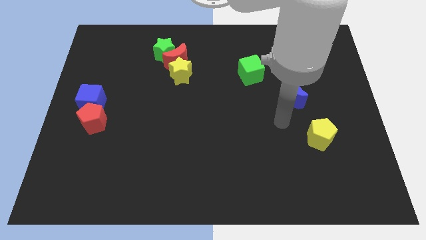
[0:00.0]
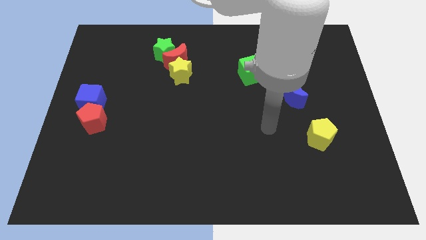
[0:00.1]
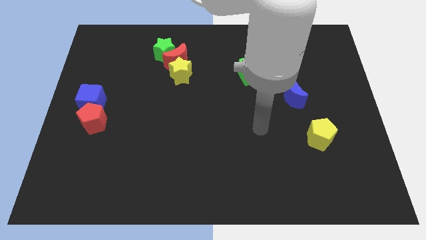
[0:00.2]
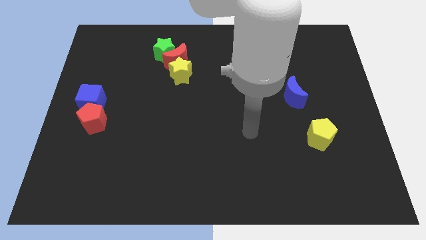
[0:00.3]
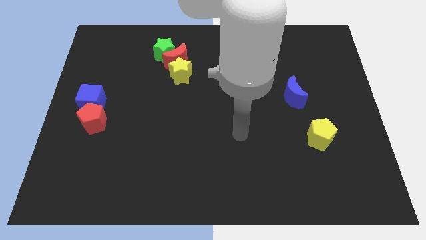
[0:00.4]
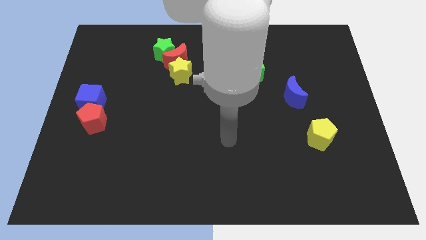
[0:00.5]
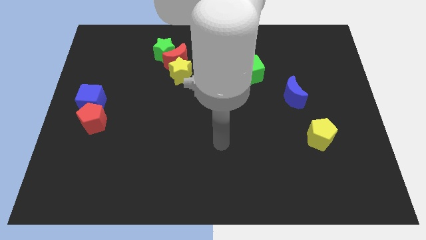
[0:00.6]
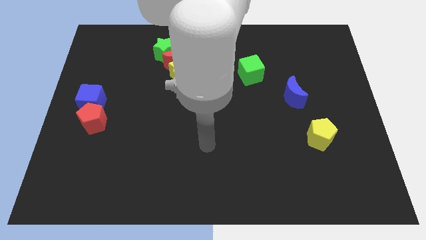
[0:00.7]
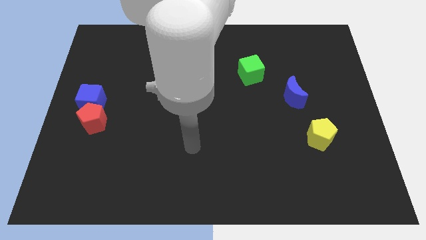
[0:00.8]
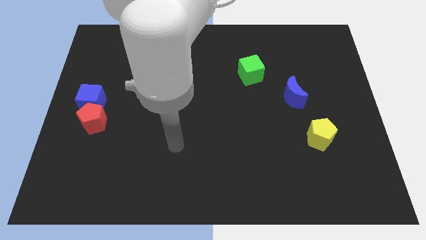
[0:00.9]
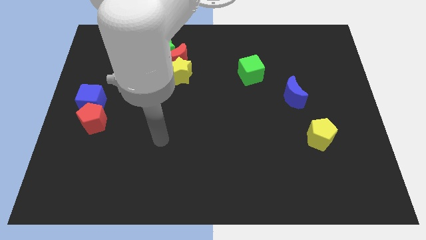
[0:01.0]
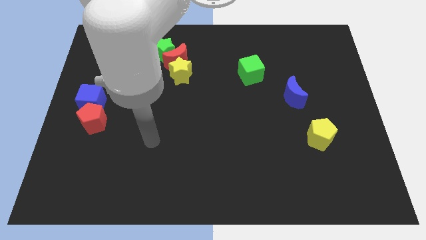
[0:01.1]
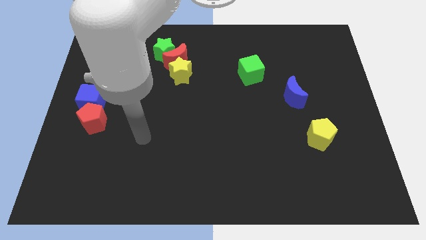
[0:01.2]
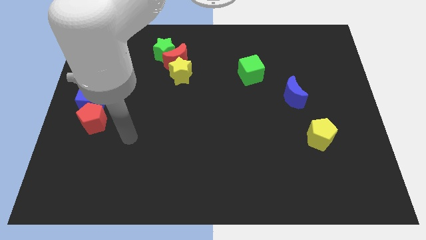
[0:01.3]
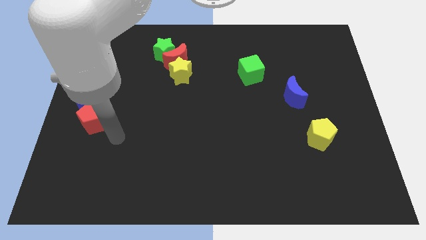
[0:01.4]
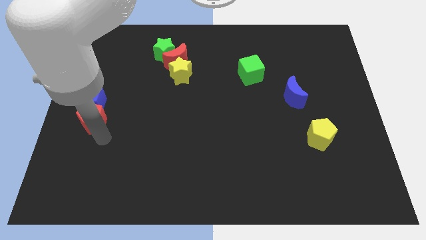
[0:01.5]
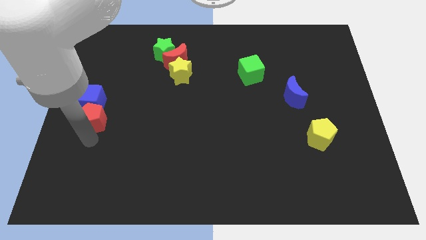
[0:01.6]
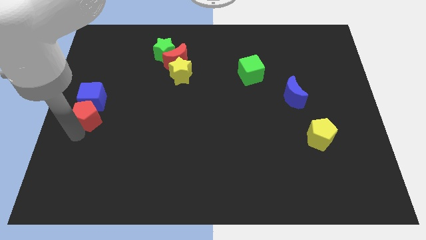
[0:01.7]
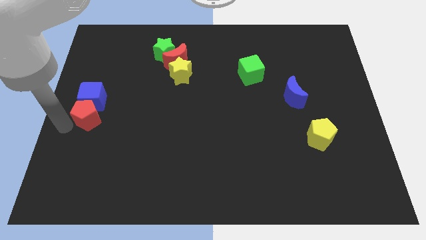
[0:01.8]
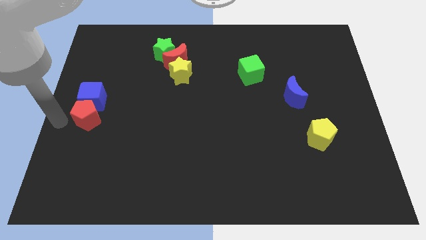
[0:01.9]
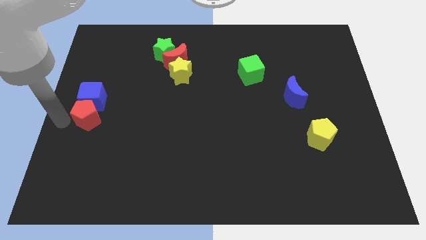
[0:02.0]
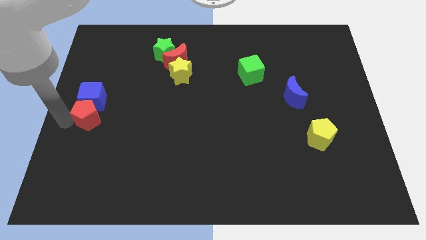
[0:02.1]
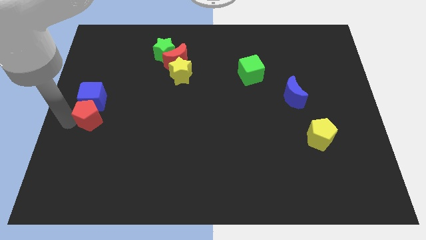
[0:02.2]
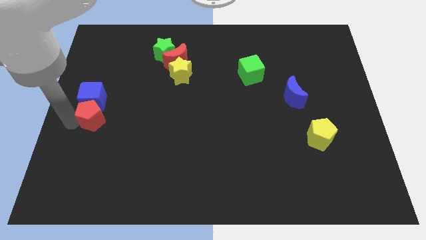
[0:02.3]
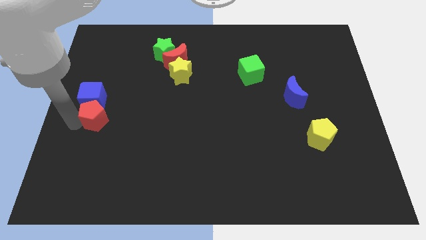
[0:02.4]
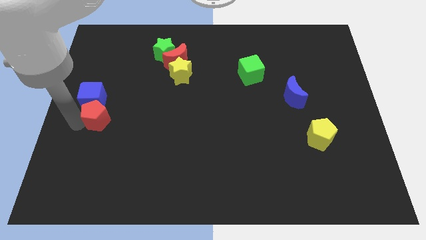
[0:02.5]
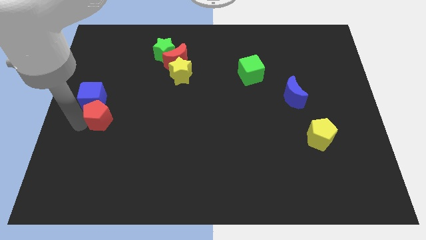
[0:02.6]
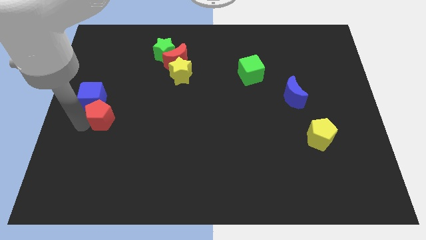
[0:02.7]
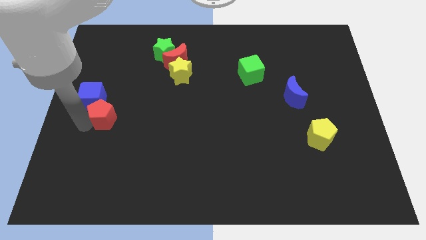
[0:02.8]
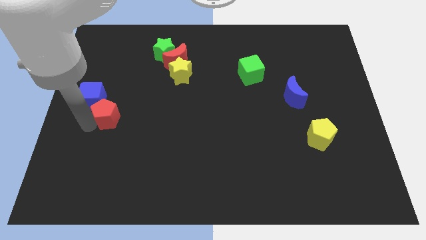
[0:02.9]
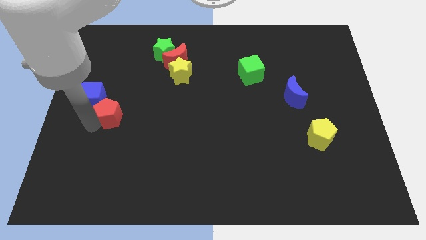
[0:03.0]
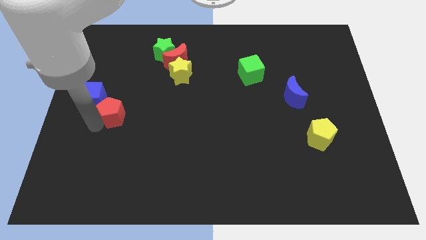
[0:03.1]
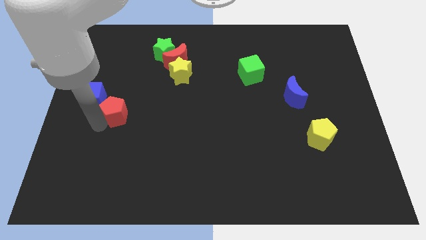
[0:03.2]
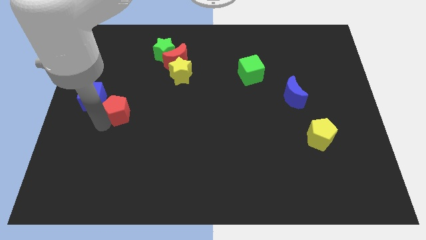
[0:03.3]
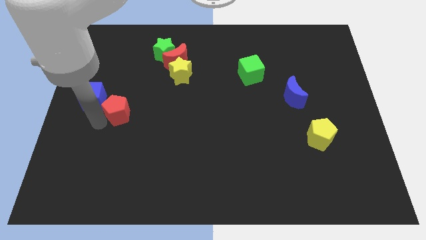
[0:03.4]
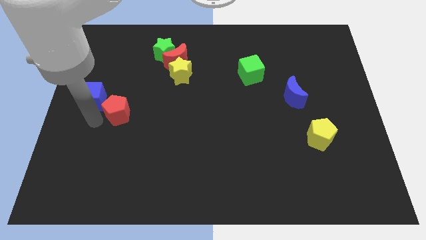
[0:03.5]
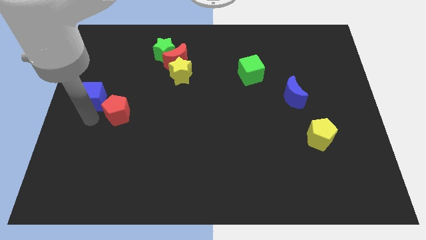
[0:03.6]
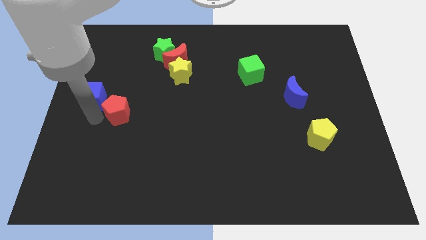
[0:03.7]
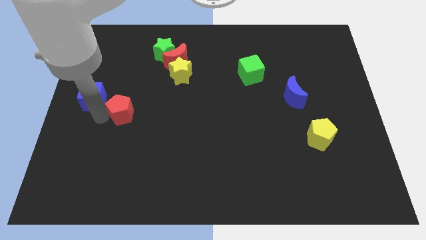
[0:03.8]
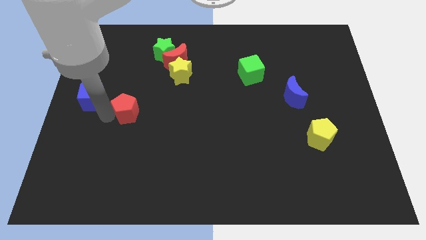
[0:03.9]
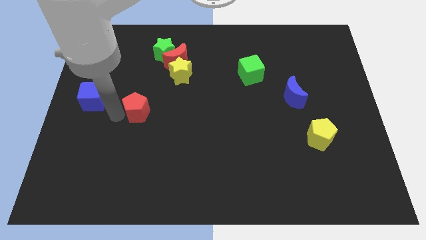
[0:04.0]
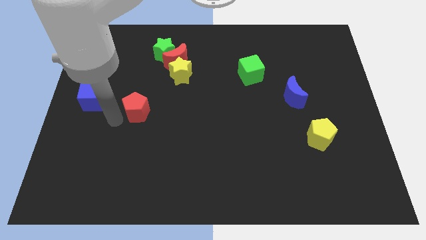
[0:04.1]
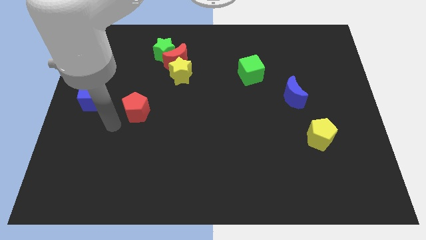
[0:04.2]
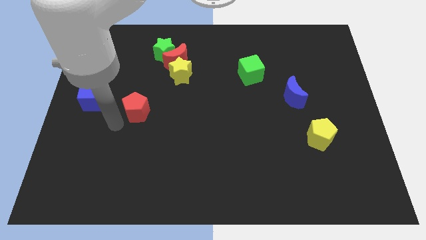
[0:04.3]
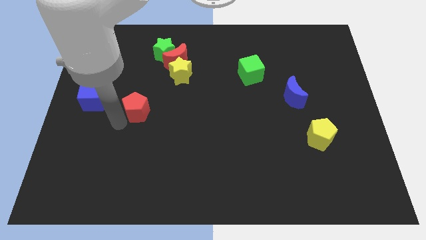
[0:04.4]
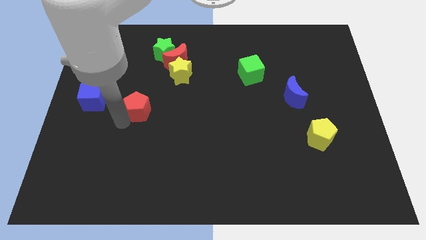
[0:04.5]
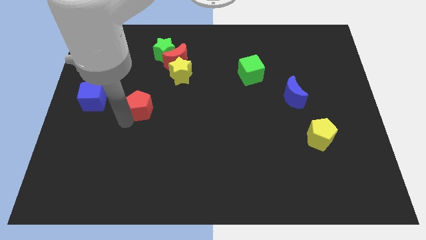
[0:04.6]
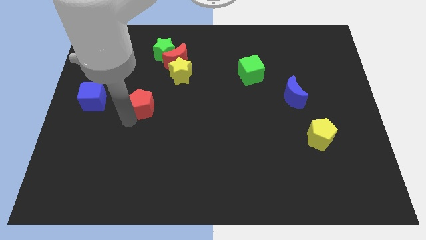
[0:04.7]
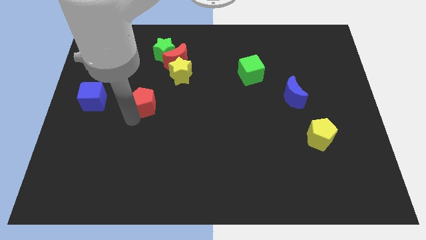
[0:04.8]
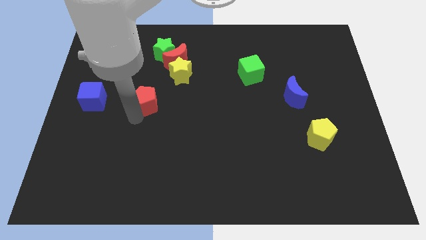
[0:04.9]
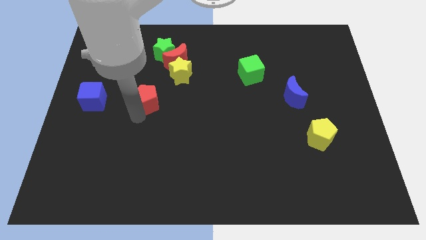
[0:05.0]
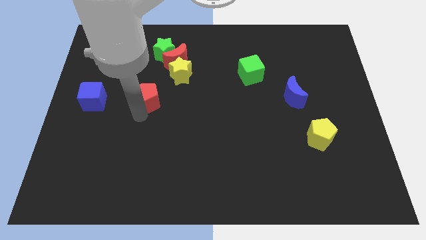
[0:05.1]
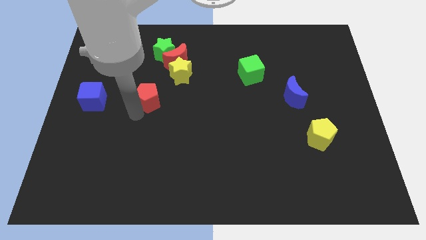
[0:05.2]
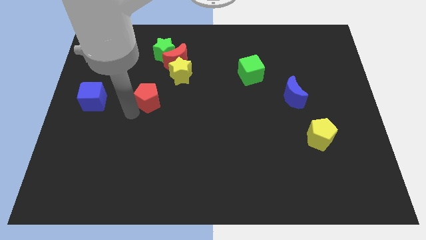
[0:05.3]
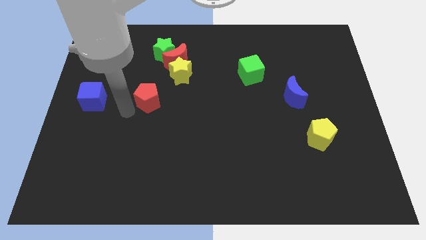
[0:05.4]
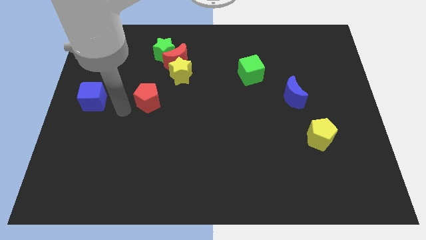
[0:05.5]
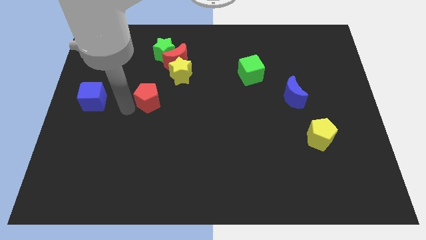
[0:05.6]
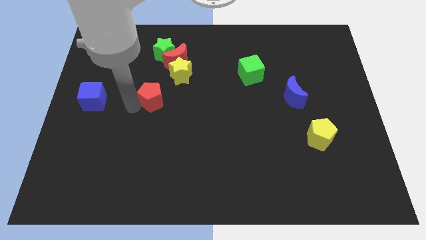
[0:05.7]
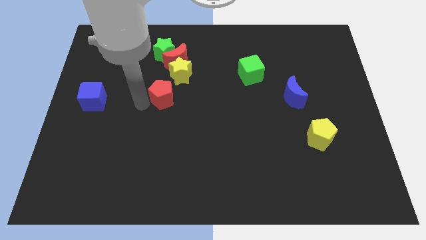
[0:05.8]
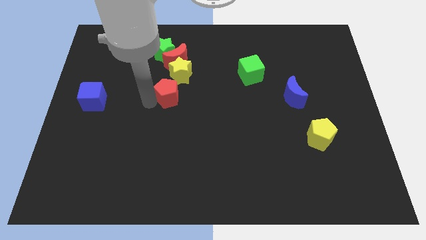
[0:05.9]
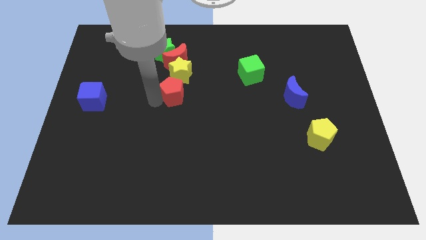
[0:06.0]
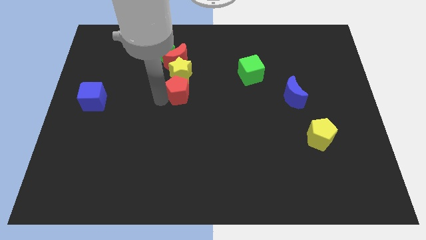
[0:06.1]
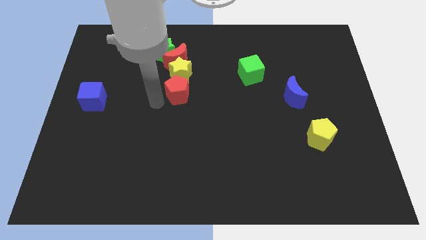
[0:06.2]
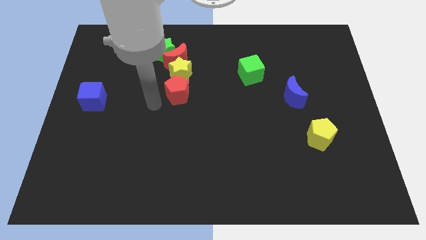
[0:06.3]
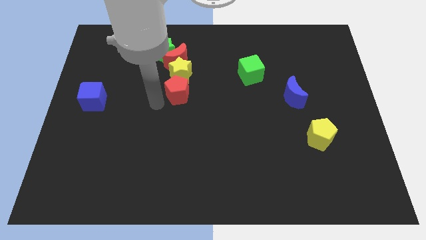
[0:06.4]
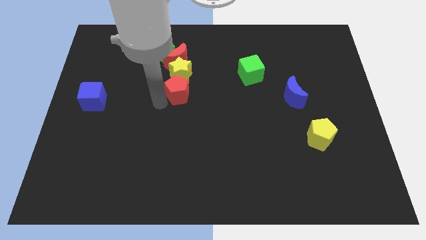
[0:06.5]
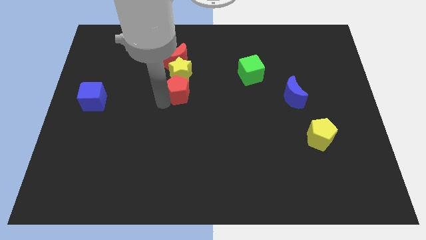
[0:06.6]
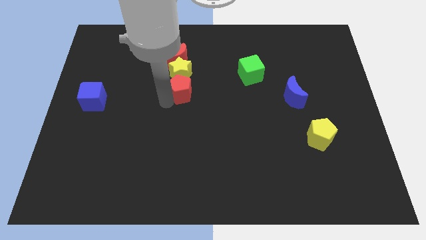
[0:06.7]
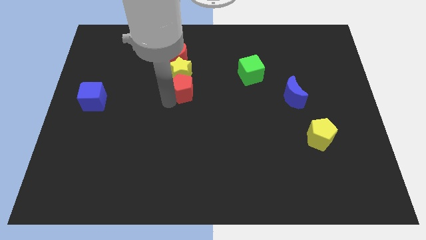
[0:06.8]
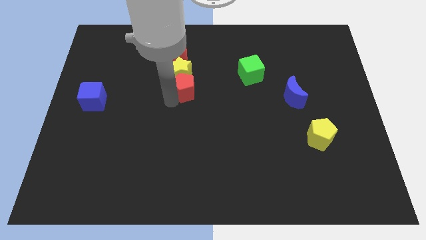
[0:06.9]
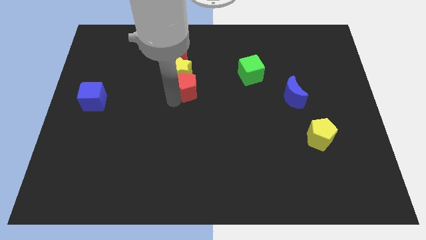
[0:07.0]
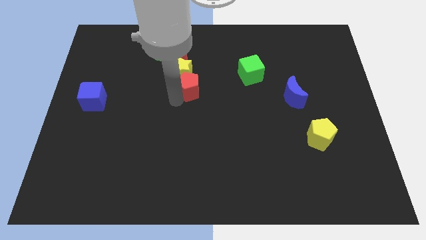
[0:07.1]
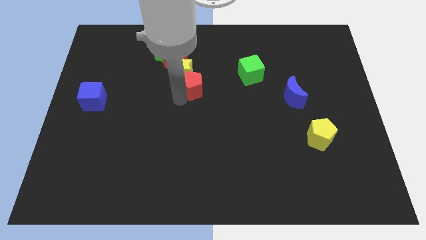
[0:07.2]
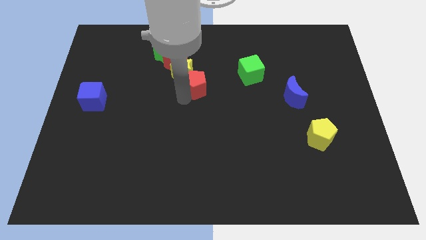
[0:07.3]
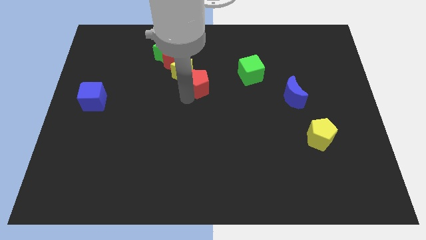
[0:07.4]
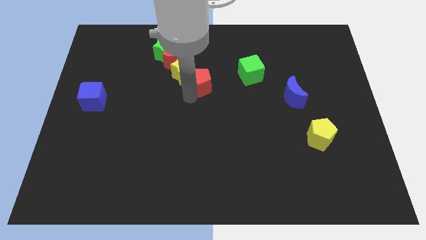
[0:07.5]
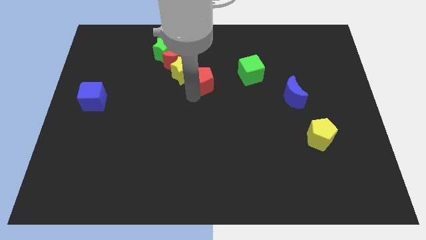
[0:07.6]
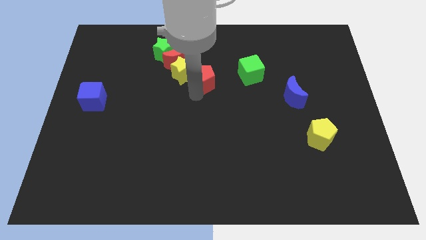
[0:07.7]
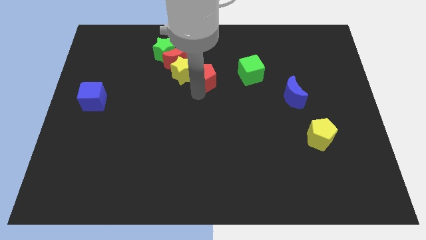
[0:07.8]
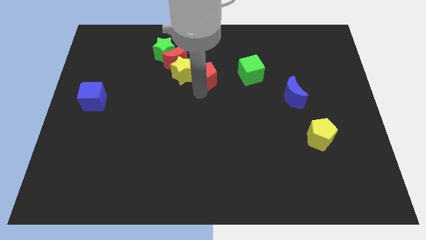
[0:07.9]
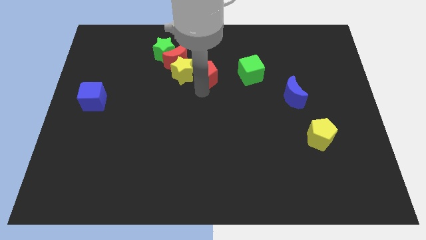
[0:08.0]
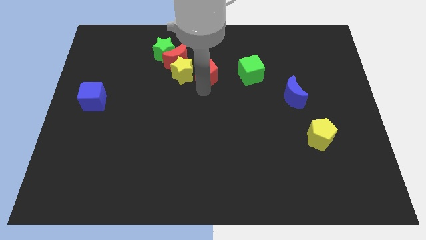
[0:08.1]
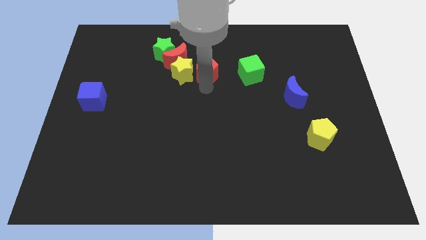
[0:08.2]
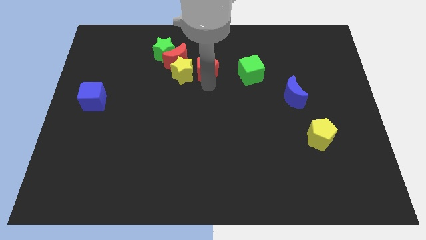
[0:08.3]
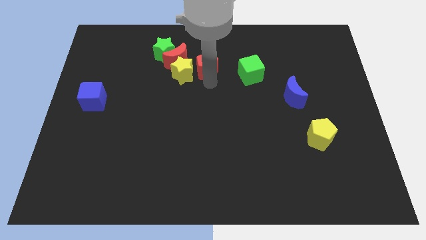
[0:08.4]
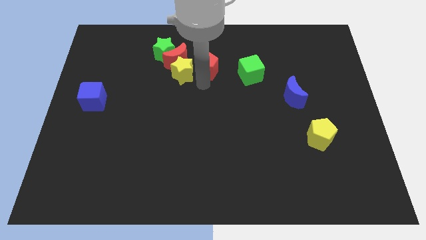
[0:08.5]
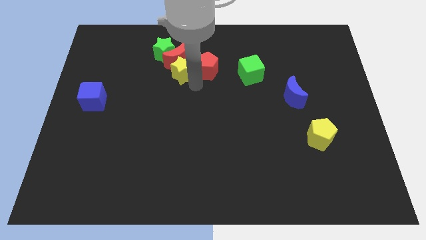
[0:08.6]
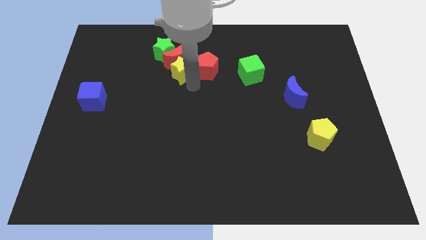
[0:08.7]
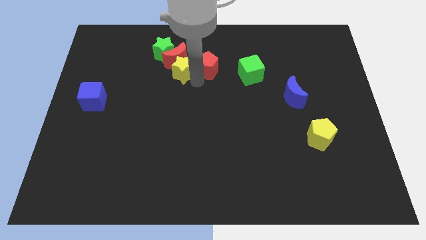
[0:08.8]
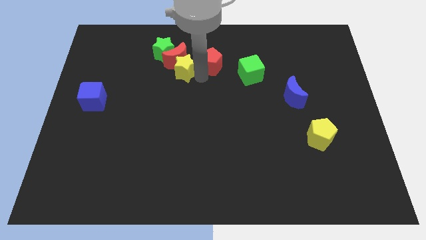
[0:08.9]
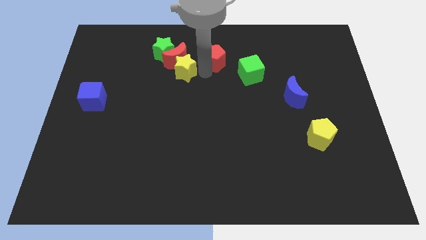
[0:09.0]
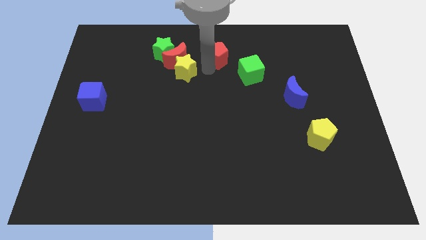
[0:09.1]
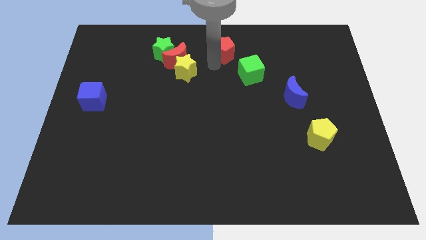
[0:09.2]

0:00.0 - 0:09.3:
put the red pentagon to the top side
